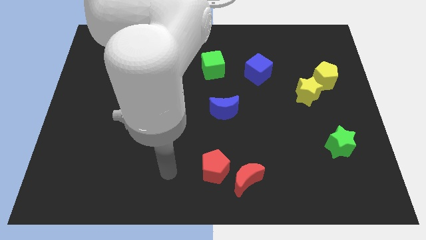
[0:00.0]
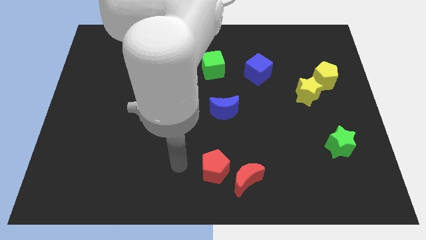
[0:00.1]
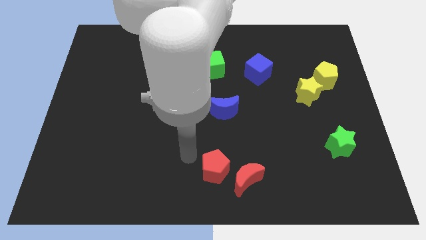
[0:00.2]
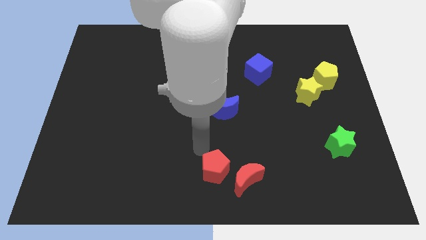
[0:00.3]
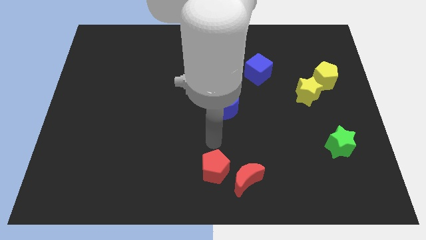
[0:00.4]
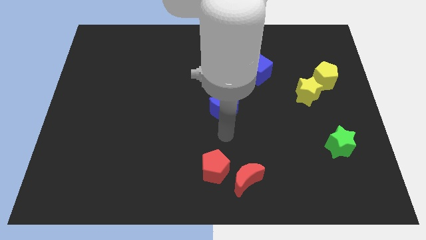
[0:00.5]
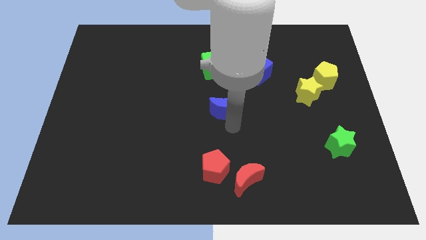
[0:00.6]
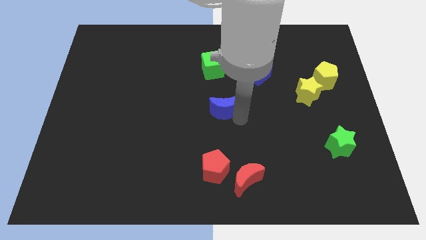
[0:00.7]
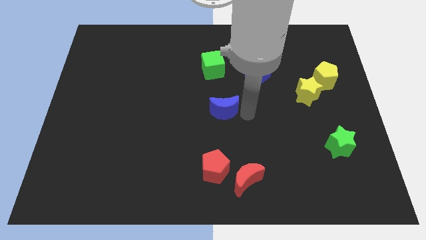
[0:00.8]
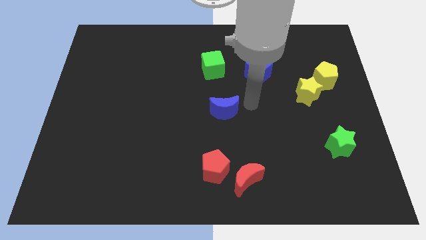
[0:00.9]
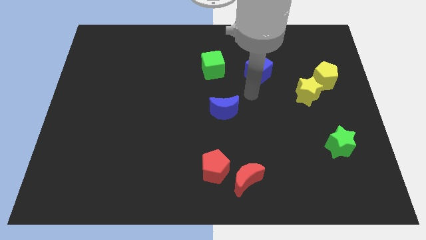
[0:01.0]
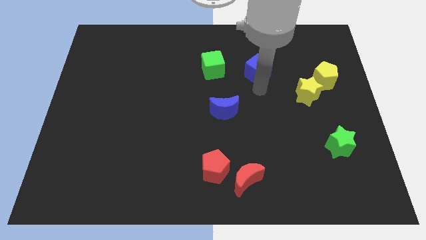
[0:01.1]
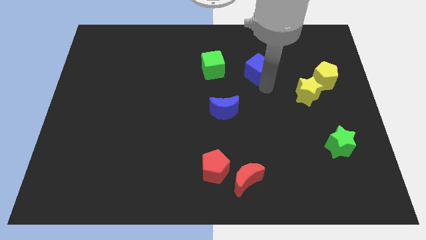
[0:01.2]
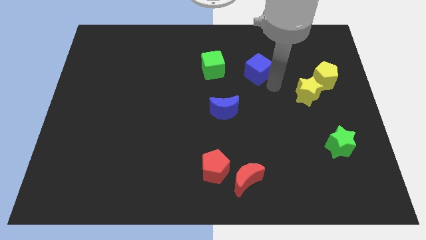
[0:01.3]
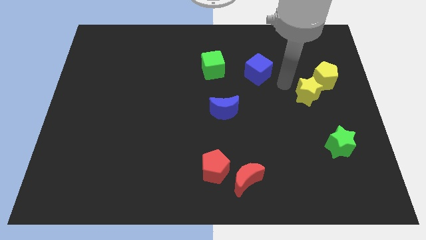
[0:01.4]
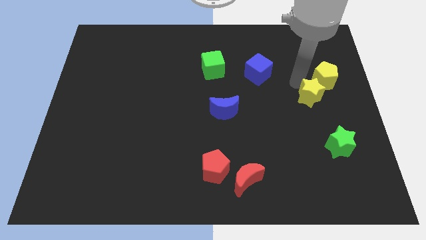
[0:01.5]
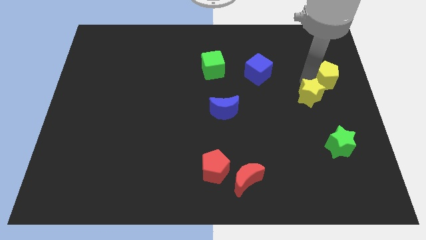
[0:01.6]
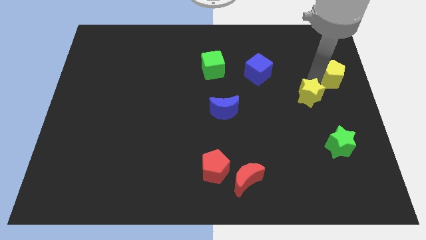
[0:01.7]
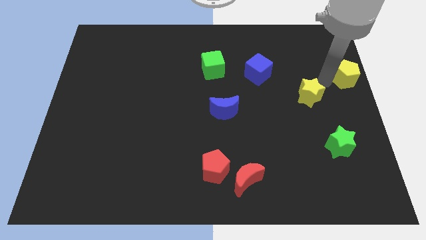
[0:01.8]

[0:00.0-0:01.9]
move the yellow star away from the yellow pentagon

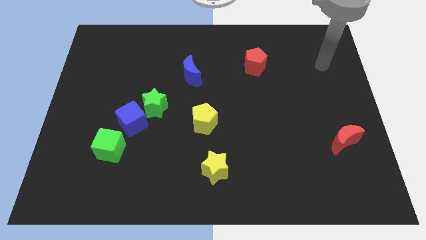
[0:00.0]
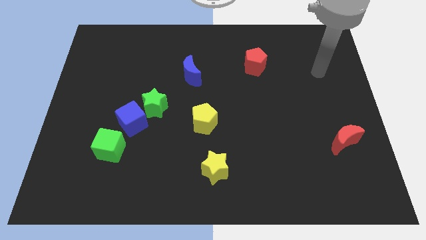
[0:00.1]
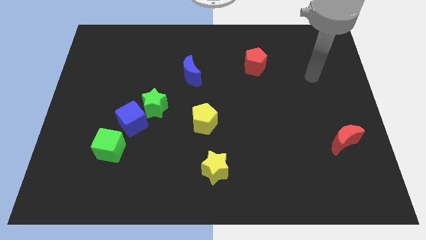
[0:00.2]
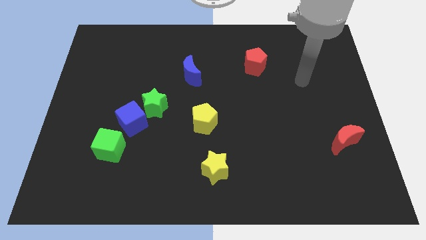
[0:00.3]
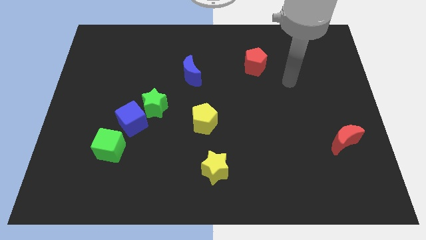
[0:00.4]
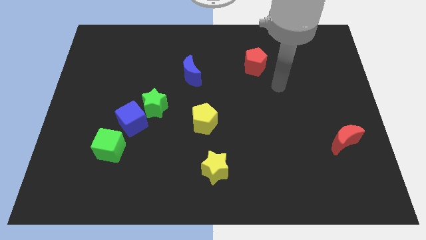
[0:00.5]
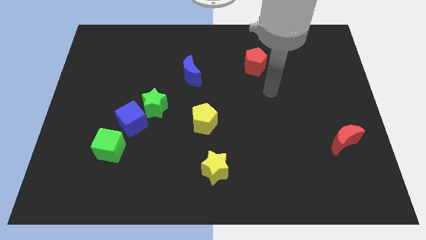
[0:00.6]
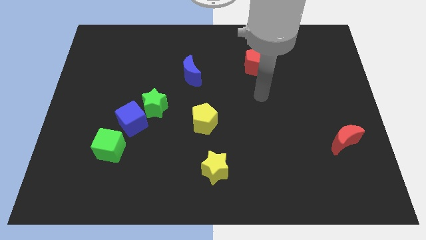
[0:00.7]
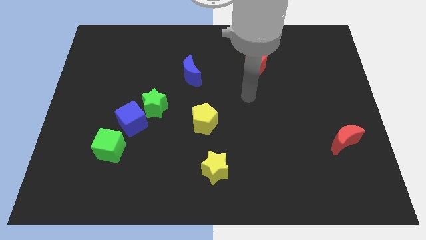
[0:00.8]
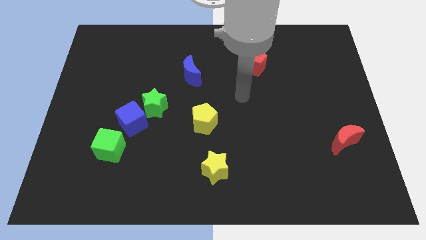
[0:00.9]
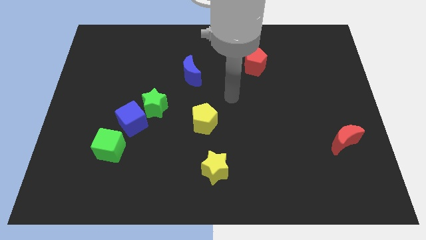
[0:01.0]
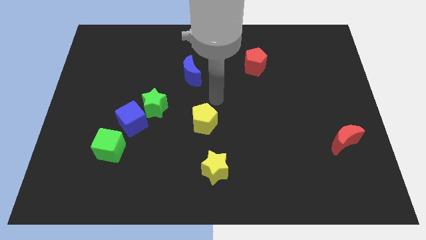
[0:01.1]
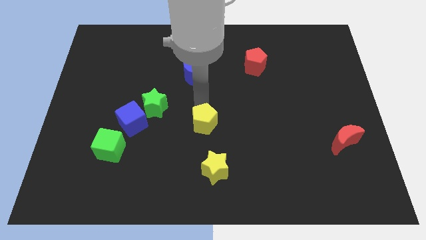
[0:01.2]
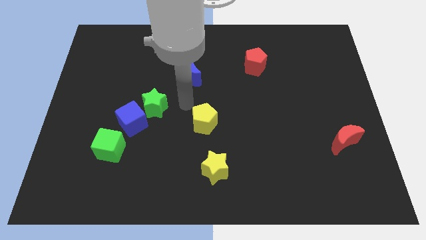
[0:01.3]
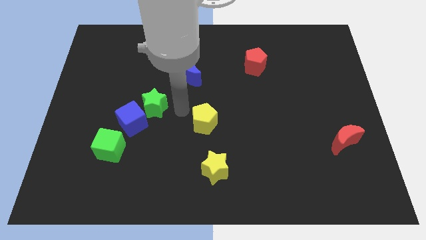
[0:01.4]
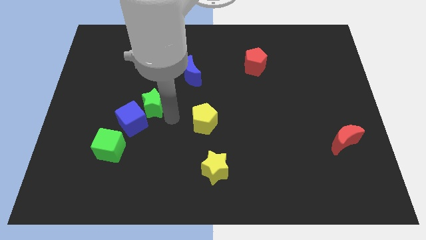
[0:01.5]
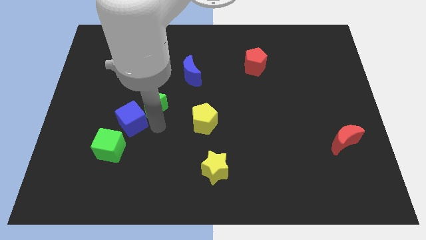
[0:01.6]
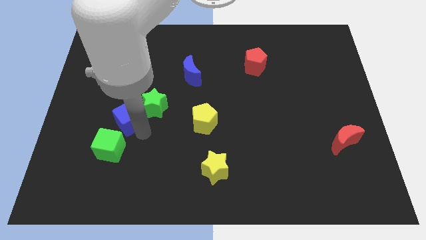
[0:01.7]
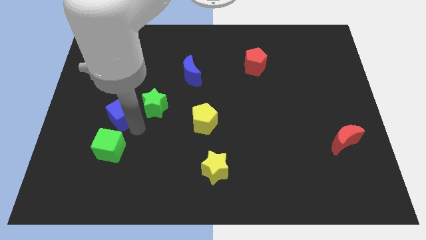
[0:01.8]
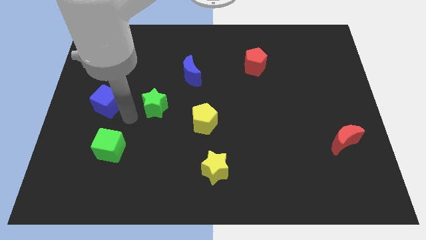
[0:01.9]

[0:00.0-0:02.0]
separate the green star from the blue cube

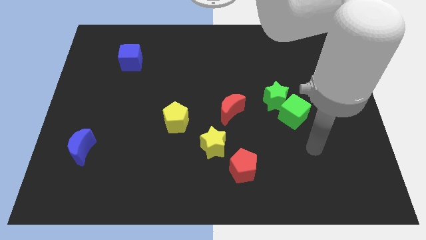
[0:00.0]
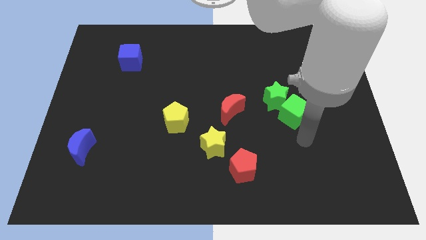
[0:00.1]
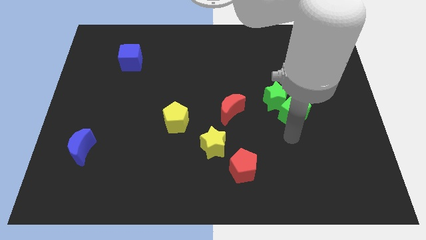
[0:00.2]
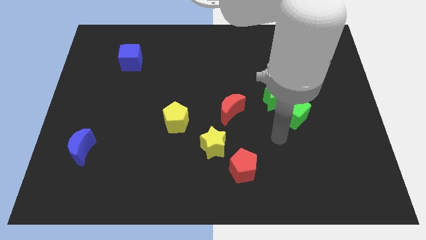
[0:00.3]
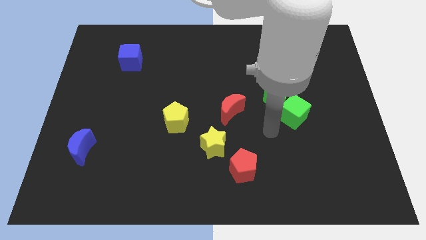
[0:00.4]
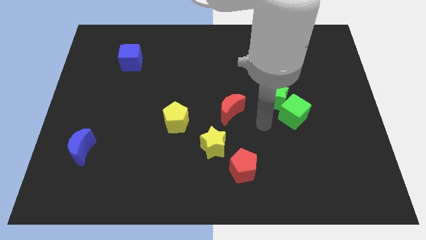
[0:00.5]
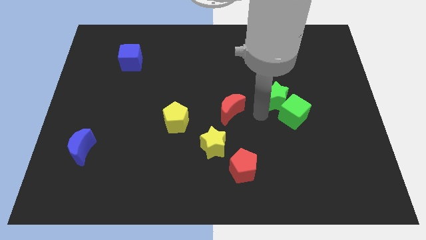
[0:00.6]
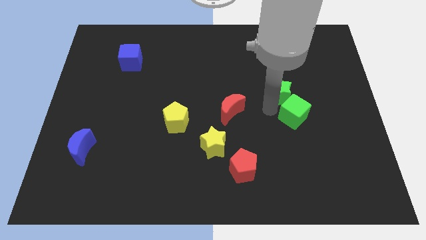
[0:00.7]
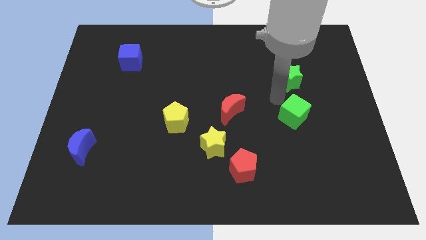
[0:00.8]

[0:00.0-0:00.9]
separate the green cube from the green star

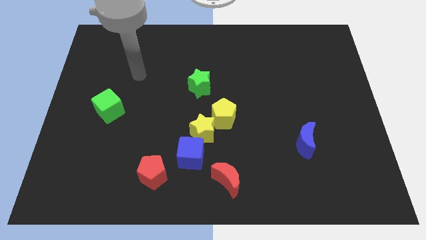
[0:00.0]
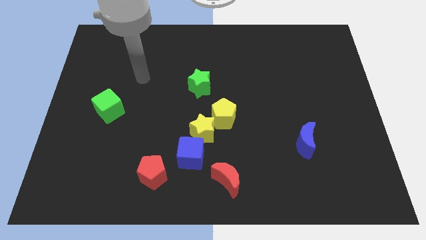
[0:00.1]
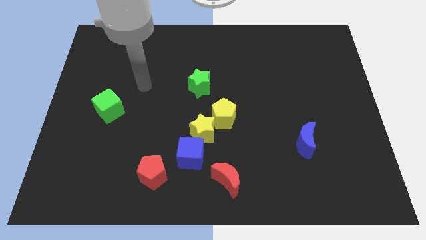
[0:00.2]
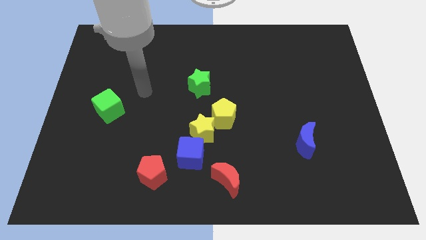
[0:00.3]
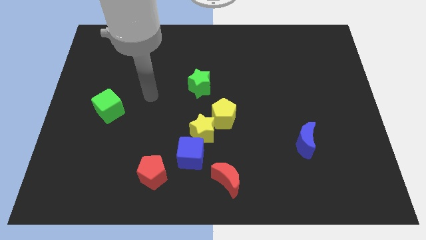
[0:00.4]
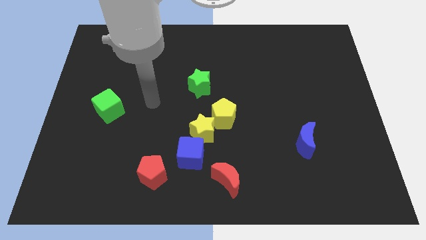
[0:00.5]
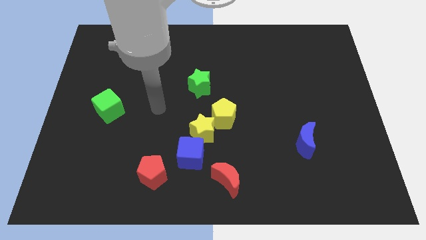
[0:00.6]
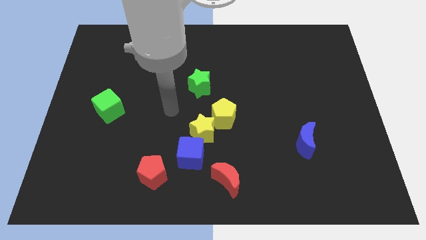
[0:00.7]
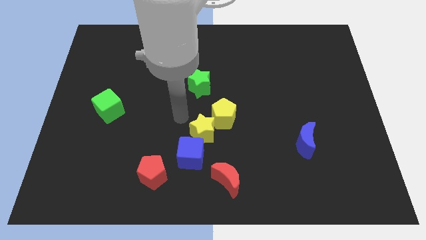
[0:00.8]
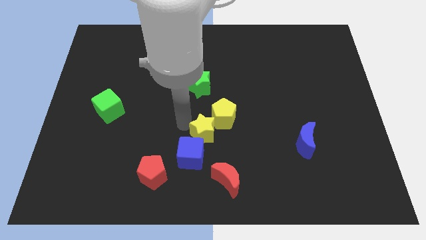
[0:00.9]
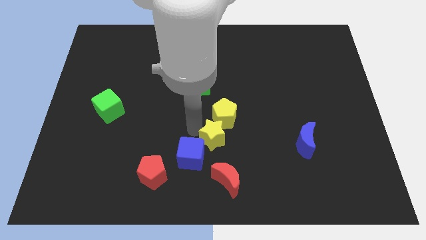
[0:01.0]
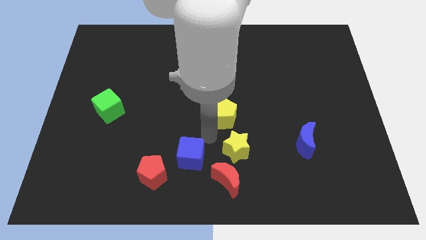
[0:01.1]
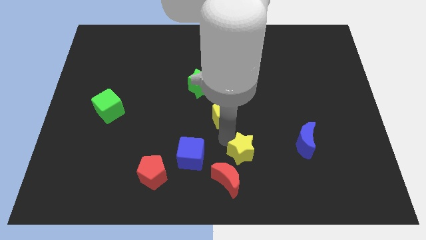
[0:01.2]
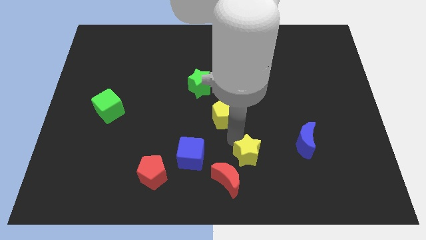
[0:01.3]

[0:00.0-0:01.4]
move the yellow pentagon away from the yellow star

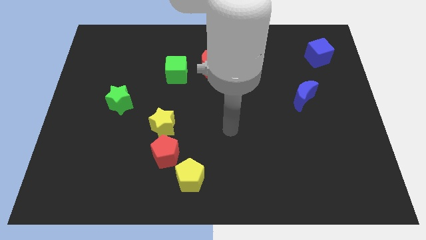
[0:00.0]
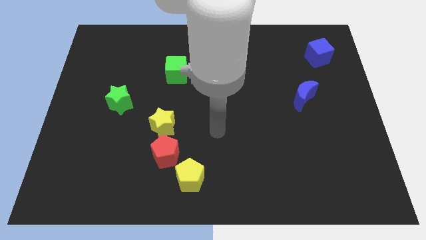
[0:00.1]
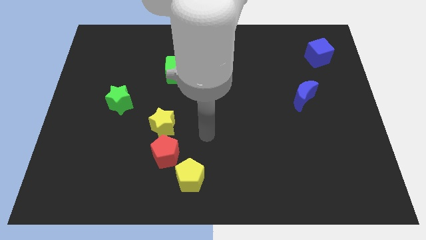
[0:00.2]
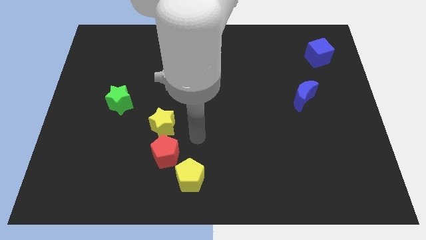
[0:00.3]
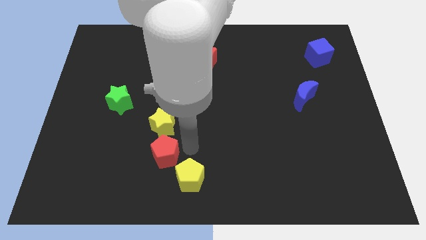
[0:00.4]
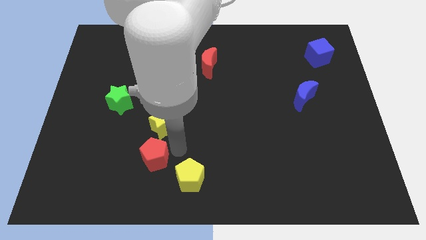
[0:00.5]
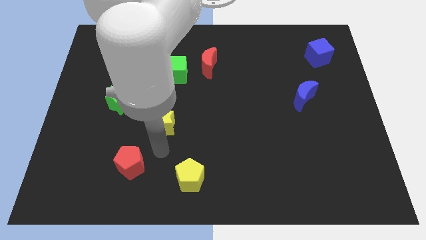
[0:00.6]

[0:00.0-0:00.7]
pull the yellow star apart from the red pentagon

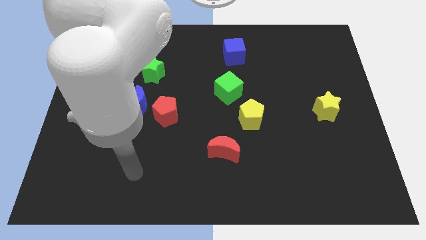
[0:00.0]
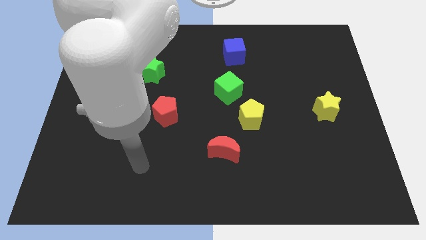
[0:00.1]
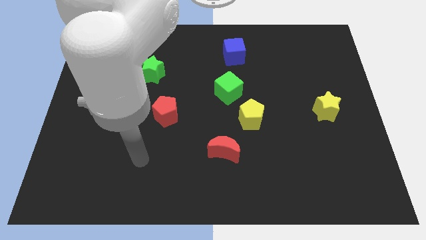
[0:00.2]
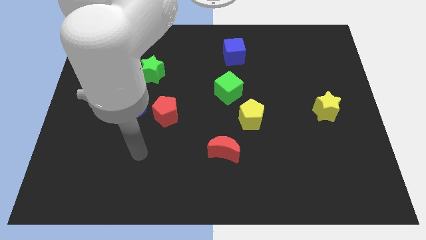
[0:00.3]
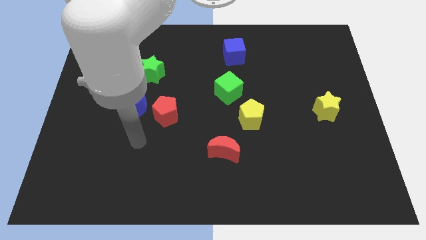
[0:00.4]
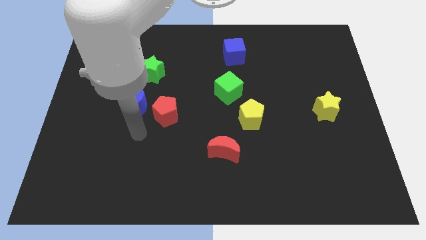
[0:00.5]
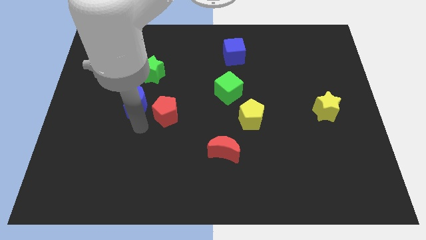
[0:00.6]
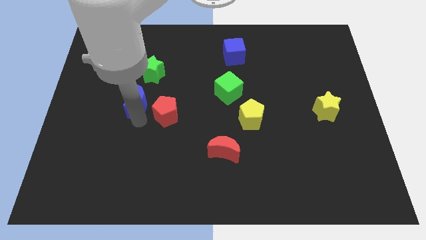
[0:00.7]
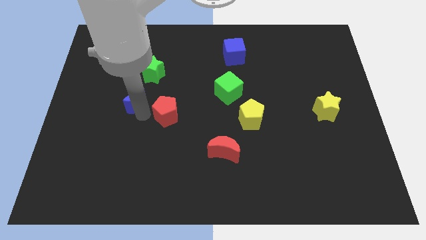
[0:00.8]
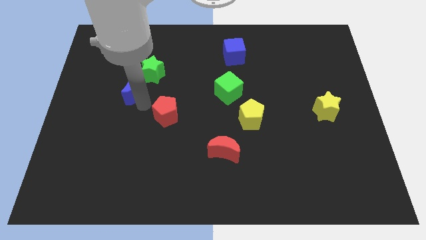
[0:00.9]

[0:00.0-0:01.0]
separate the red pentagon from the blue moon

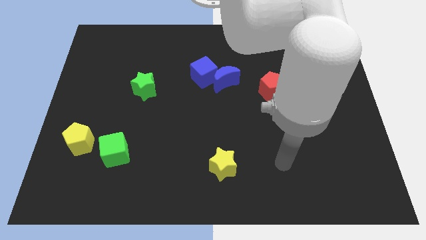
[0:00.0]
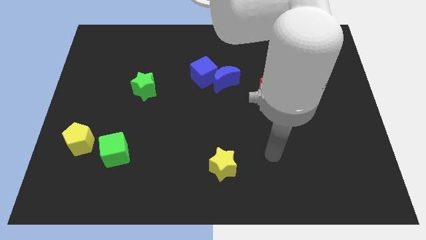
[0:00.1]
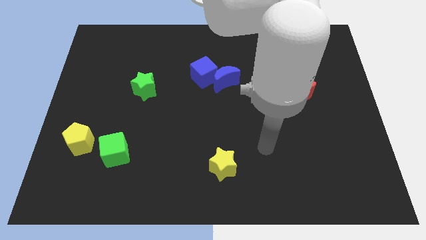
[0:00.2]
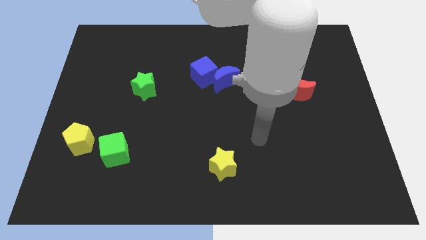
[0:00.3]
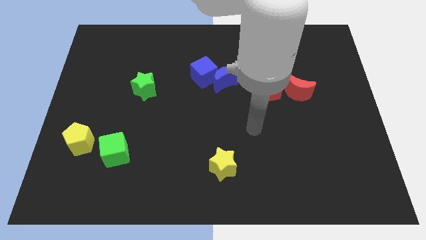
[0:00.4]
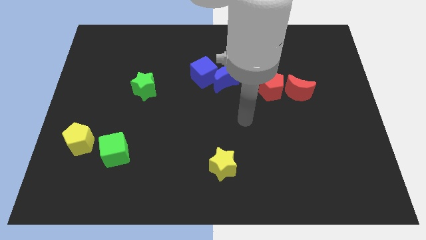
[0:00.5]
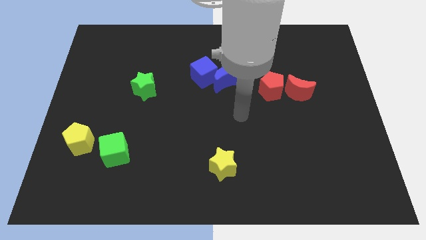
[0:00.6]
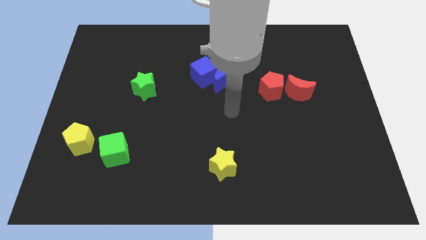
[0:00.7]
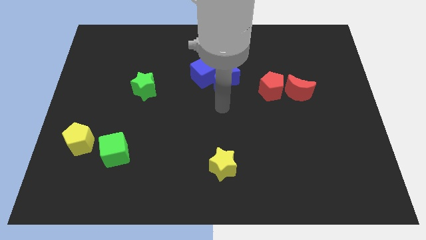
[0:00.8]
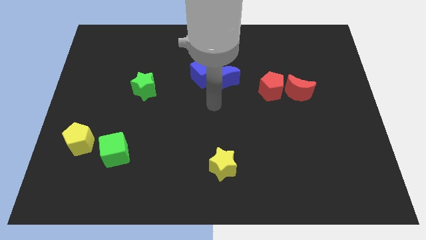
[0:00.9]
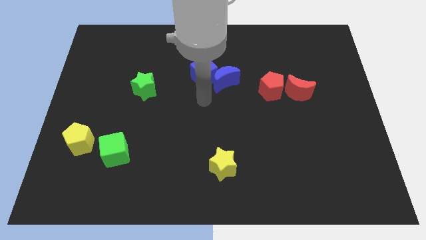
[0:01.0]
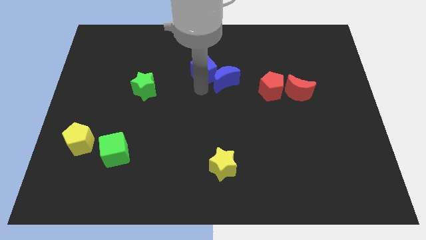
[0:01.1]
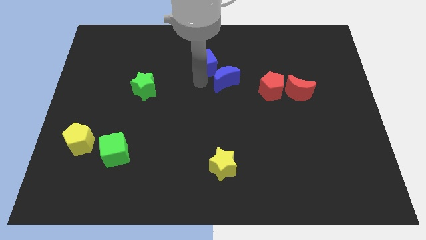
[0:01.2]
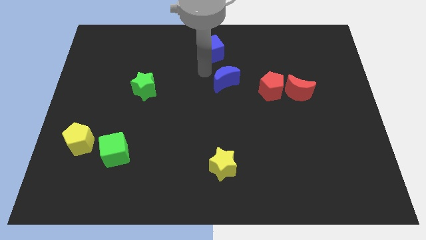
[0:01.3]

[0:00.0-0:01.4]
pull the blue moon apart from the blue cube

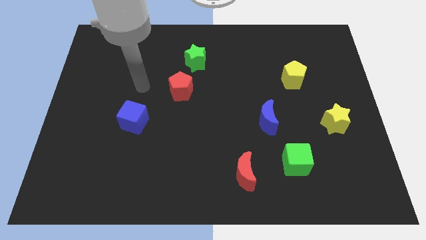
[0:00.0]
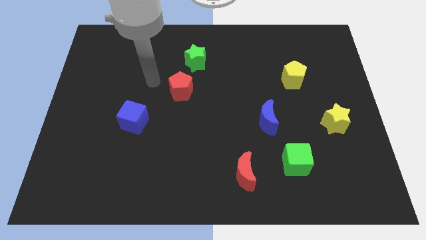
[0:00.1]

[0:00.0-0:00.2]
pull the red pentagon apart from the green star

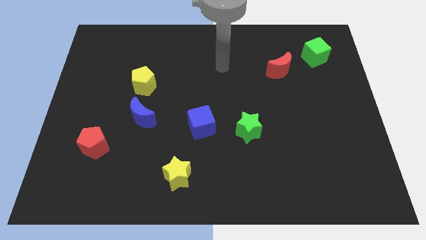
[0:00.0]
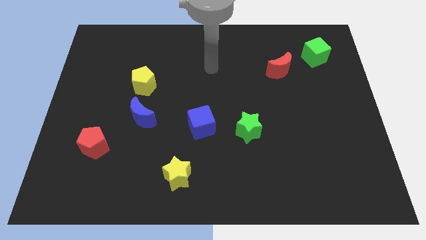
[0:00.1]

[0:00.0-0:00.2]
separate the blue moon from the yellow pentagon
